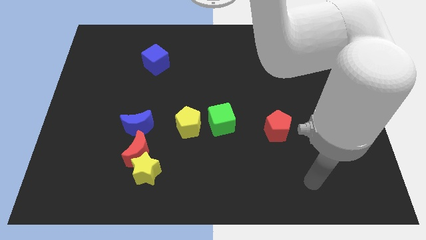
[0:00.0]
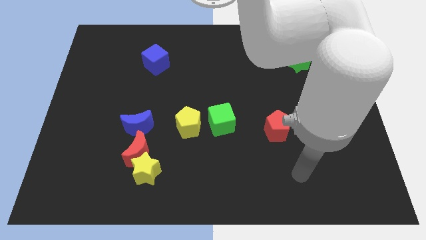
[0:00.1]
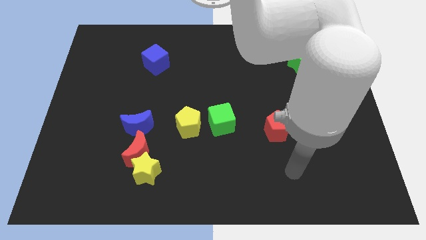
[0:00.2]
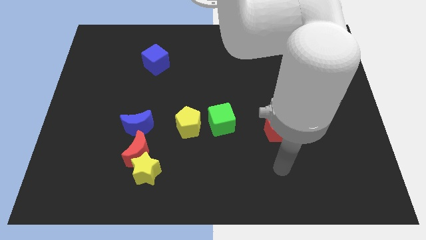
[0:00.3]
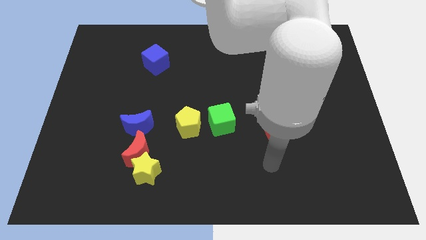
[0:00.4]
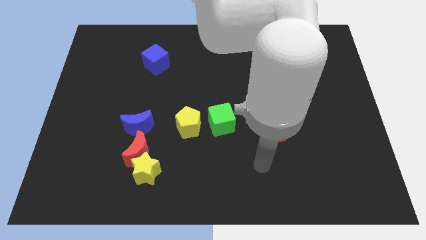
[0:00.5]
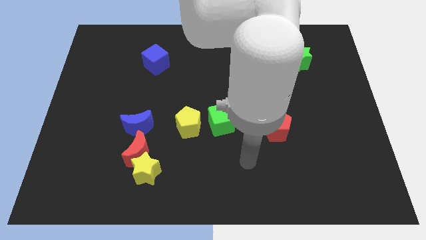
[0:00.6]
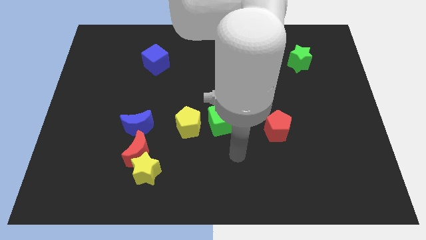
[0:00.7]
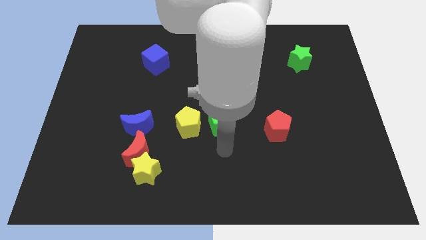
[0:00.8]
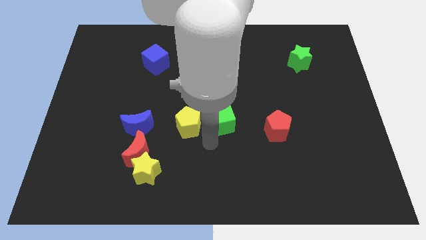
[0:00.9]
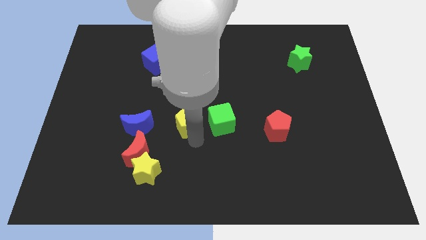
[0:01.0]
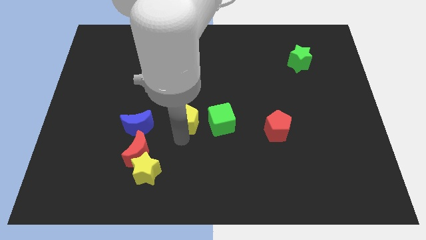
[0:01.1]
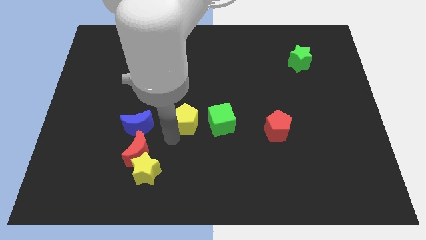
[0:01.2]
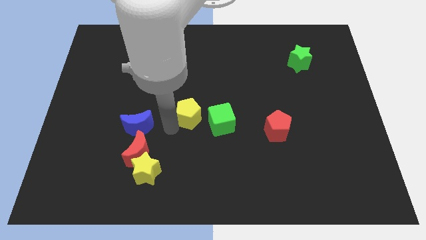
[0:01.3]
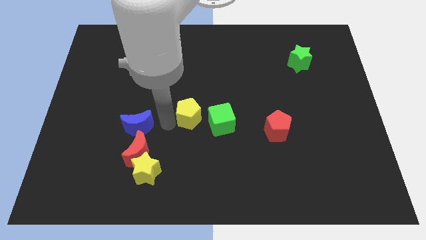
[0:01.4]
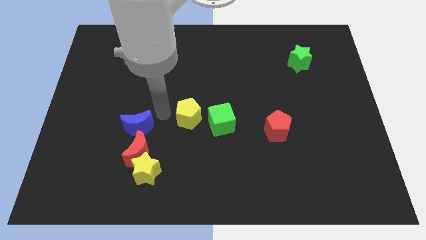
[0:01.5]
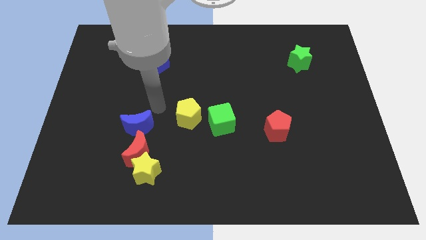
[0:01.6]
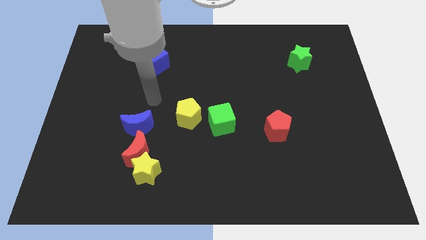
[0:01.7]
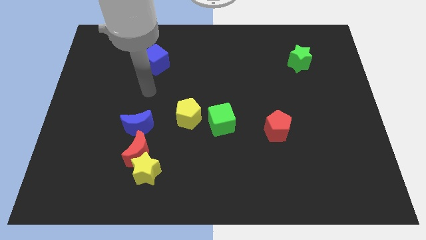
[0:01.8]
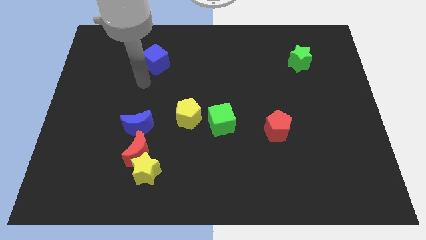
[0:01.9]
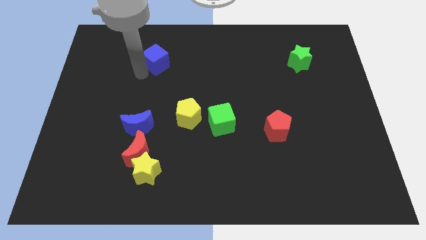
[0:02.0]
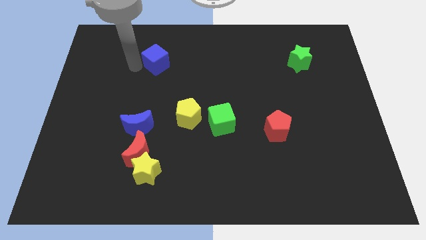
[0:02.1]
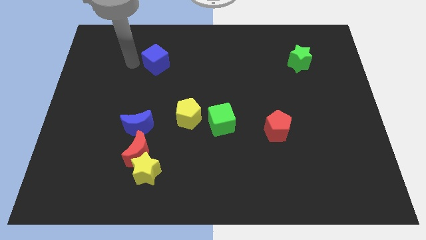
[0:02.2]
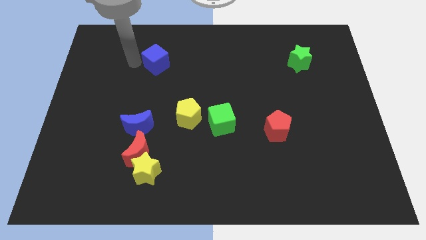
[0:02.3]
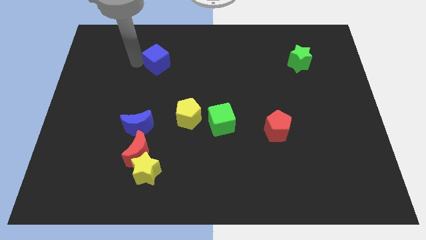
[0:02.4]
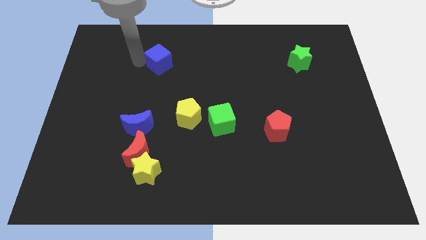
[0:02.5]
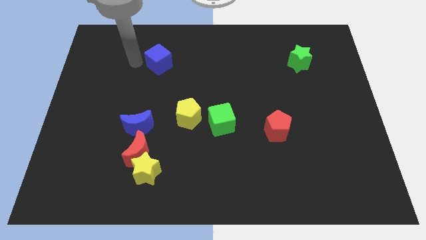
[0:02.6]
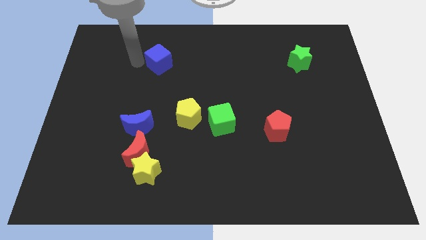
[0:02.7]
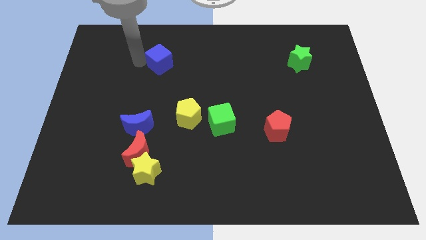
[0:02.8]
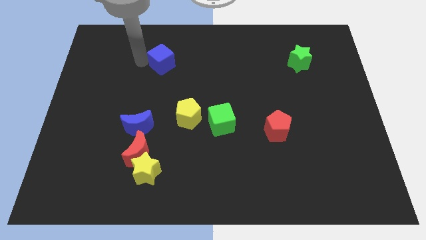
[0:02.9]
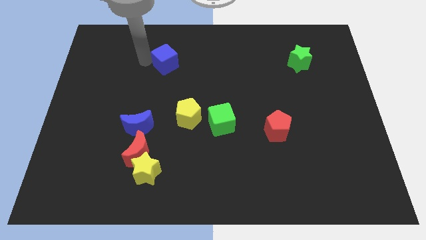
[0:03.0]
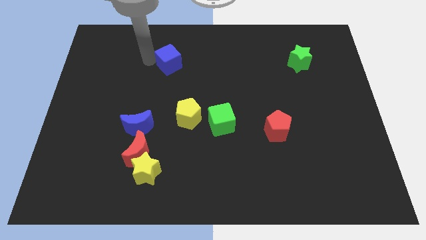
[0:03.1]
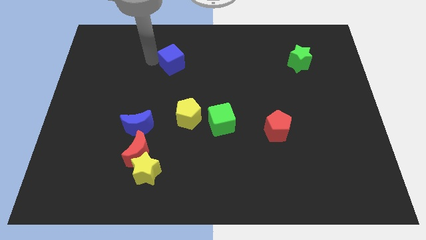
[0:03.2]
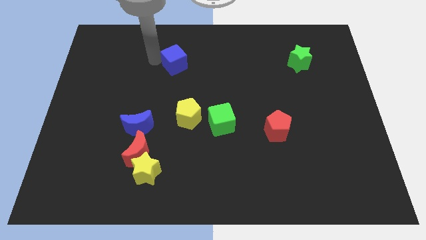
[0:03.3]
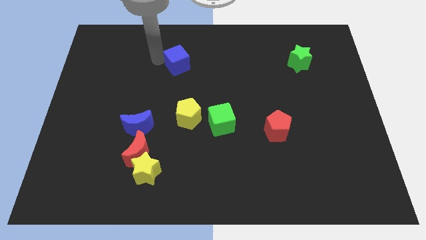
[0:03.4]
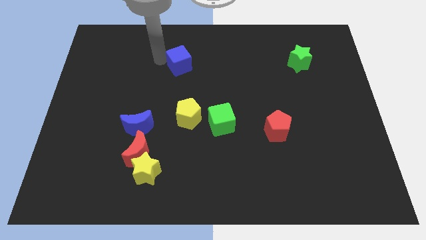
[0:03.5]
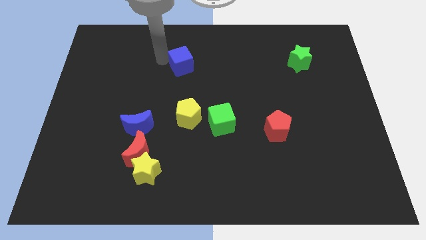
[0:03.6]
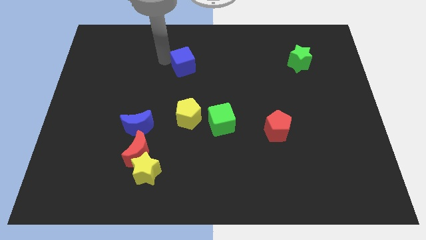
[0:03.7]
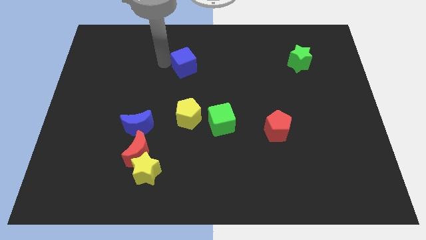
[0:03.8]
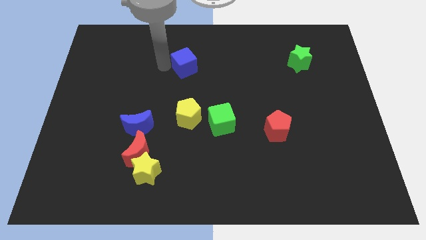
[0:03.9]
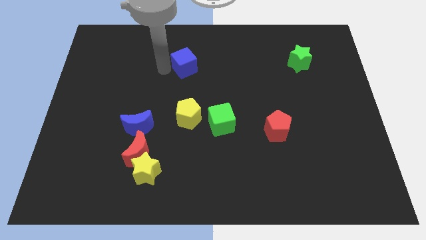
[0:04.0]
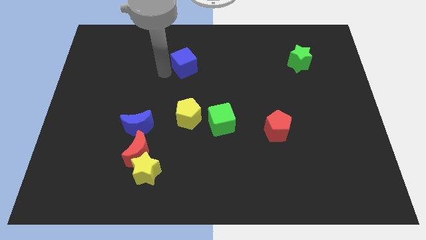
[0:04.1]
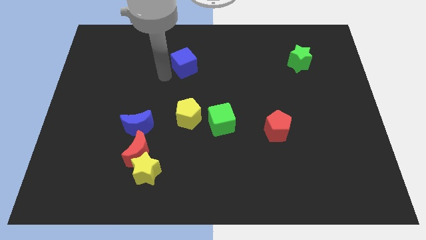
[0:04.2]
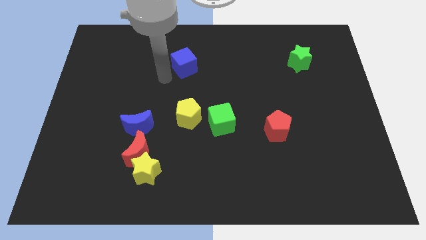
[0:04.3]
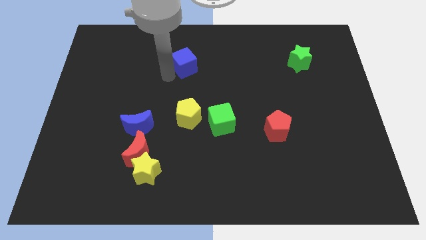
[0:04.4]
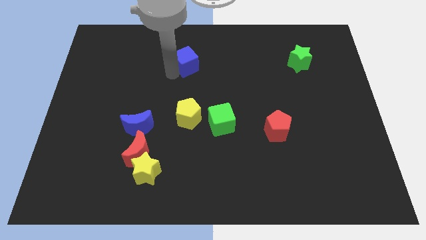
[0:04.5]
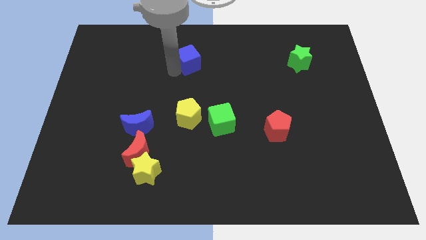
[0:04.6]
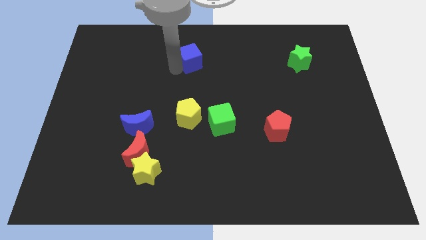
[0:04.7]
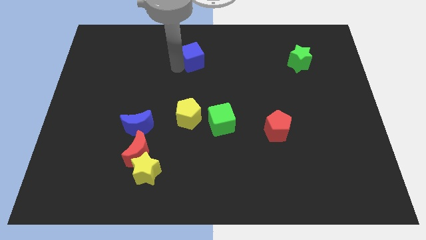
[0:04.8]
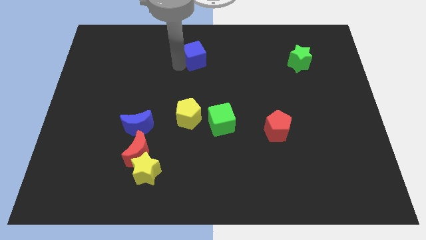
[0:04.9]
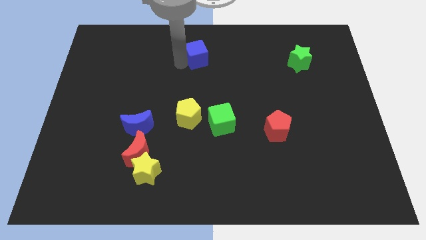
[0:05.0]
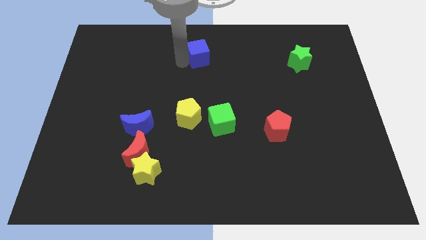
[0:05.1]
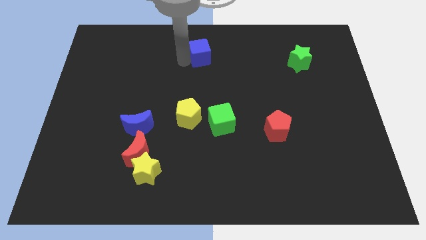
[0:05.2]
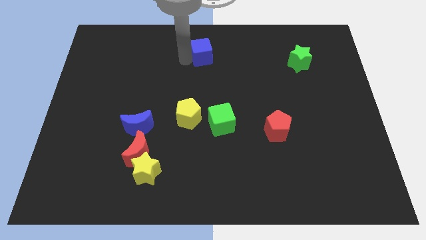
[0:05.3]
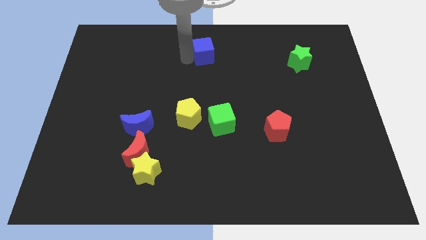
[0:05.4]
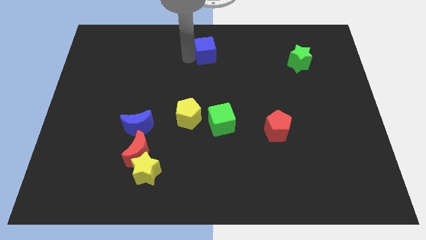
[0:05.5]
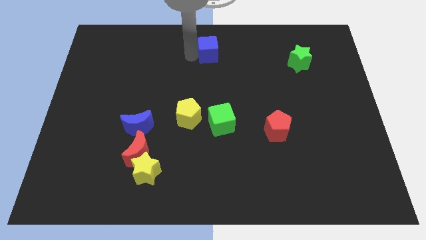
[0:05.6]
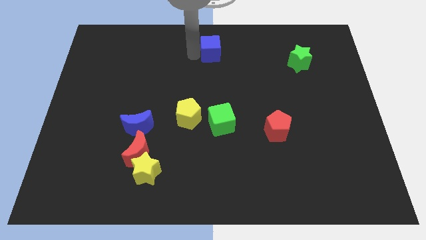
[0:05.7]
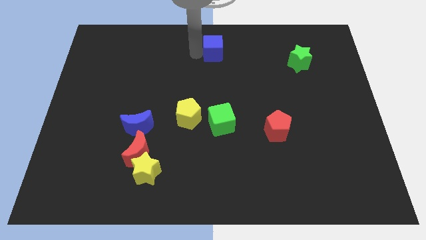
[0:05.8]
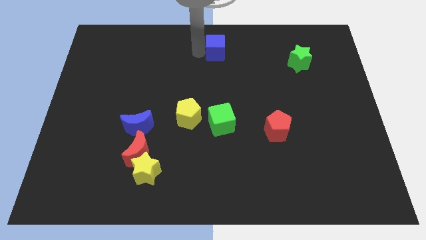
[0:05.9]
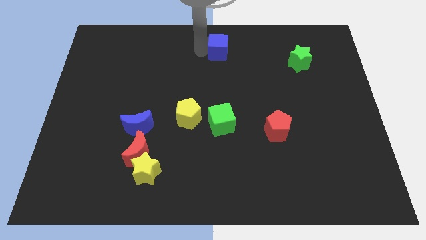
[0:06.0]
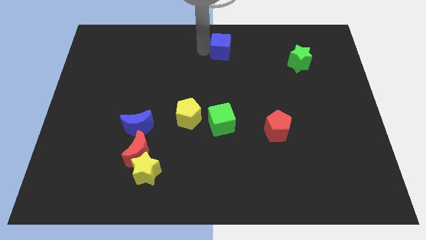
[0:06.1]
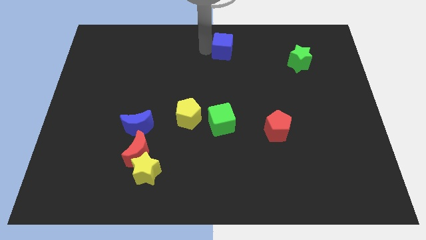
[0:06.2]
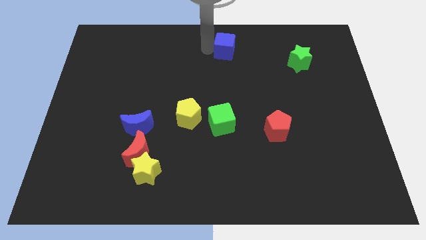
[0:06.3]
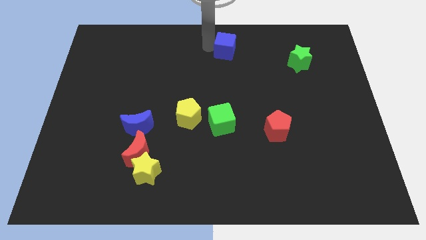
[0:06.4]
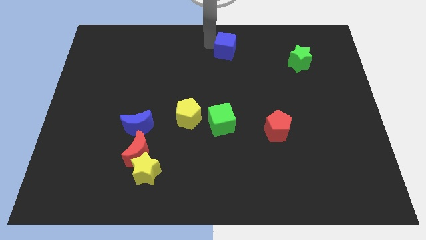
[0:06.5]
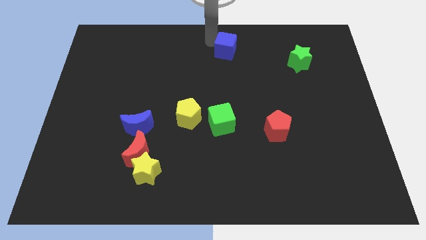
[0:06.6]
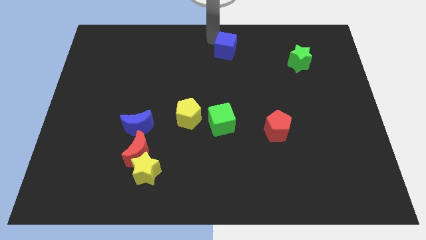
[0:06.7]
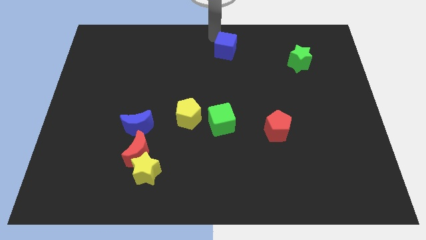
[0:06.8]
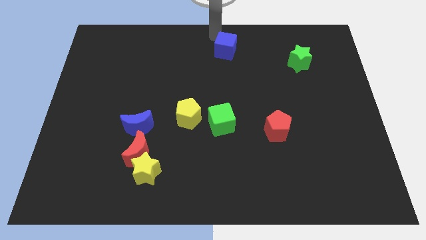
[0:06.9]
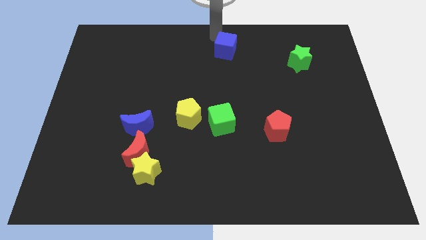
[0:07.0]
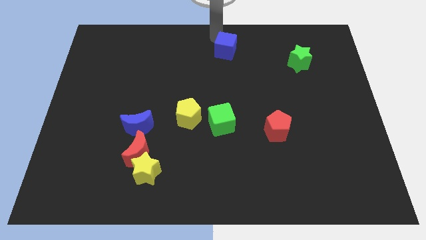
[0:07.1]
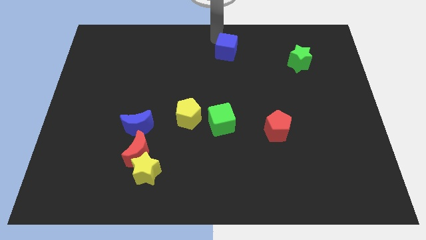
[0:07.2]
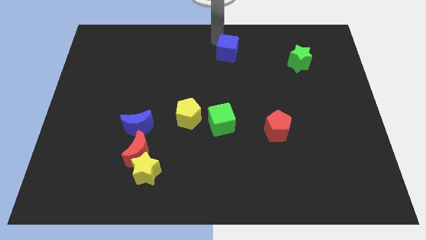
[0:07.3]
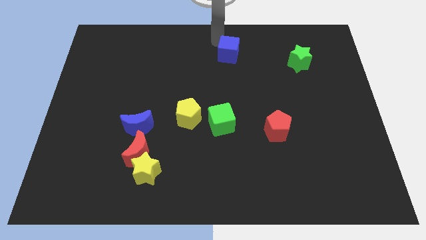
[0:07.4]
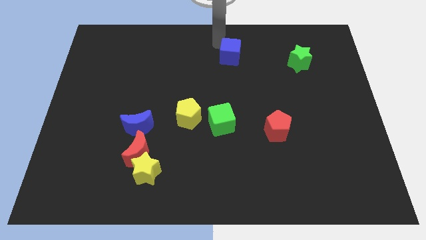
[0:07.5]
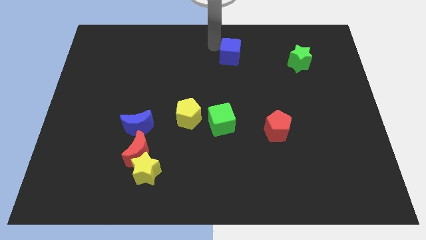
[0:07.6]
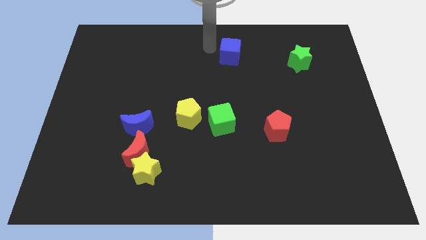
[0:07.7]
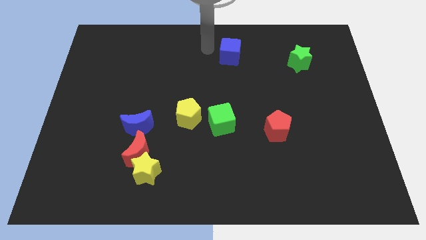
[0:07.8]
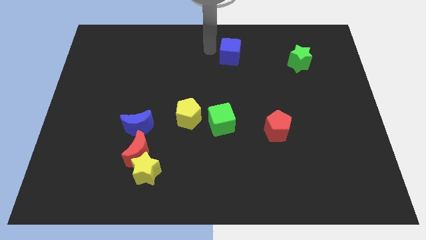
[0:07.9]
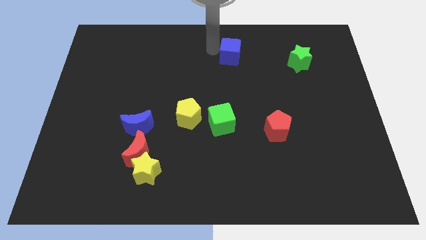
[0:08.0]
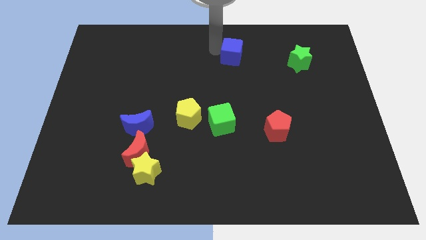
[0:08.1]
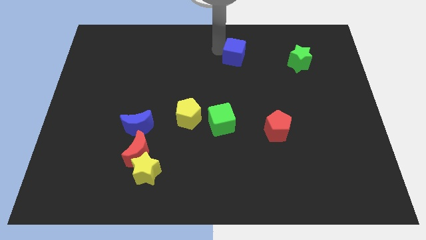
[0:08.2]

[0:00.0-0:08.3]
push the blue cube to the right
